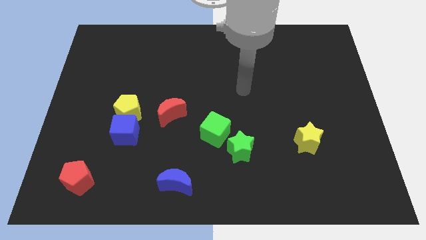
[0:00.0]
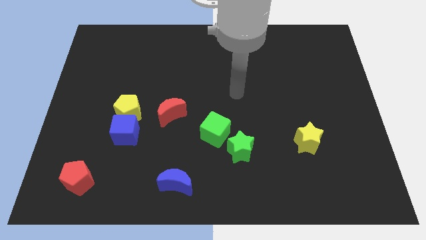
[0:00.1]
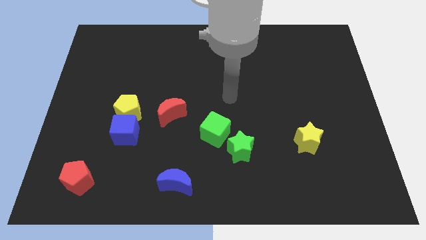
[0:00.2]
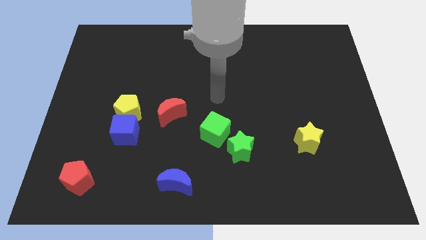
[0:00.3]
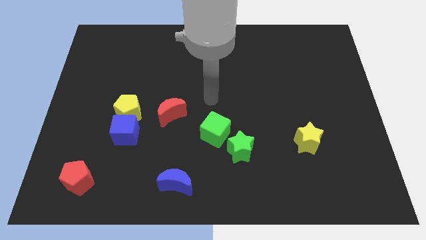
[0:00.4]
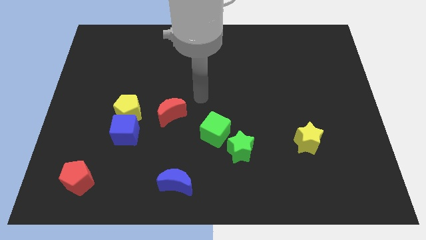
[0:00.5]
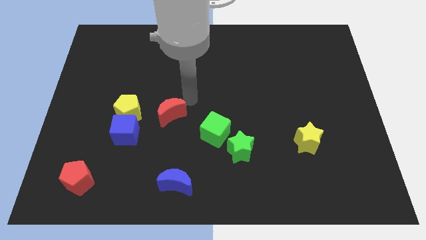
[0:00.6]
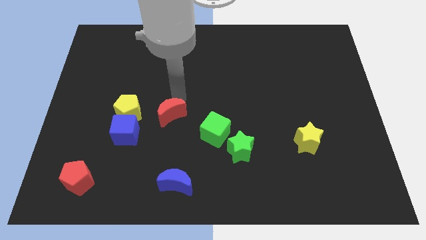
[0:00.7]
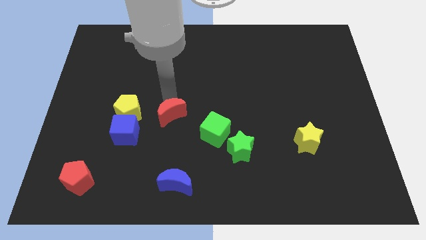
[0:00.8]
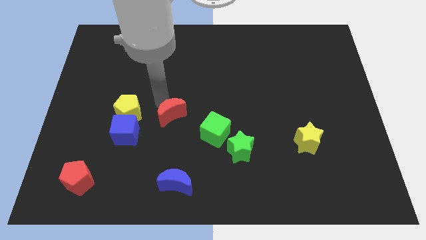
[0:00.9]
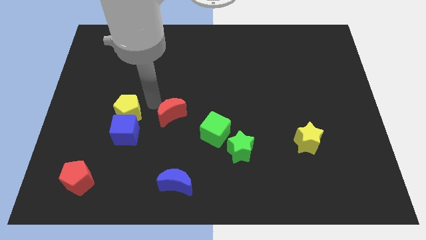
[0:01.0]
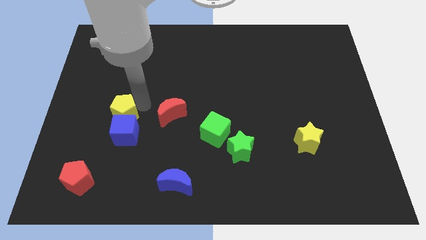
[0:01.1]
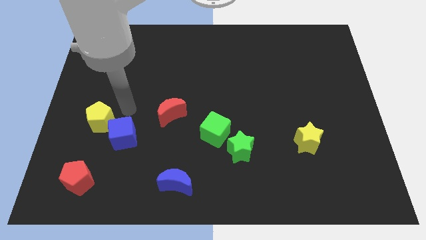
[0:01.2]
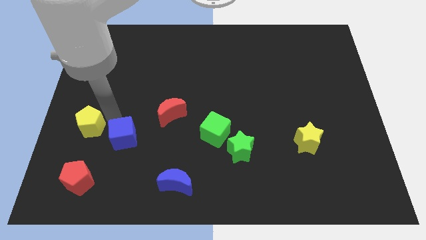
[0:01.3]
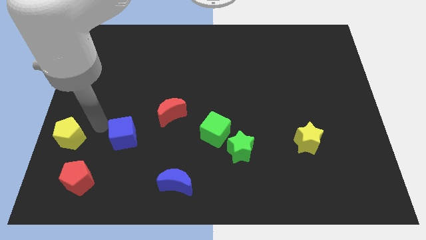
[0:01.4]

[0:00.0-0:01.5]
pull the blue cube apart from the yellow pentagon

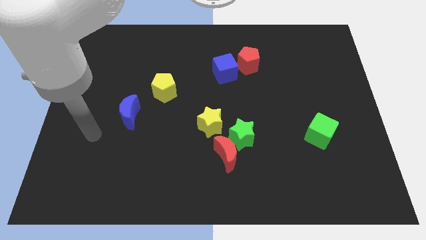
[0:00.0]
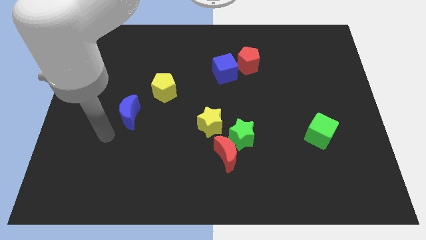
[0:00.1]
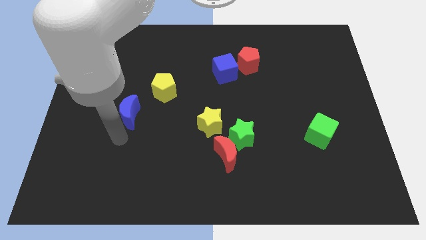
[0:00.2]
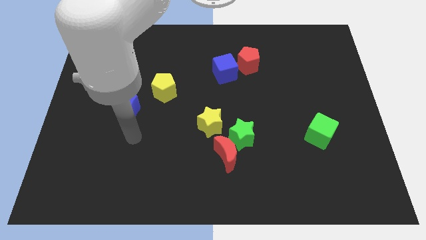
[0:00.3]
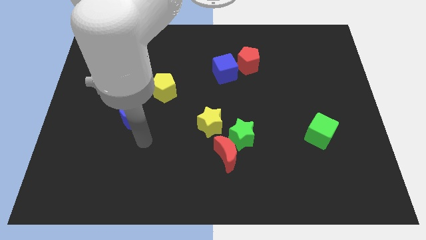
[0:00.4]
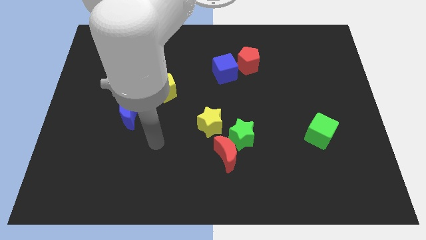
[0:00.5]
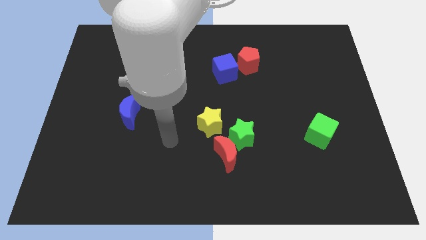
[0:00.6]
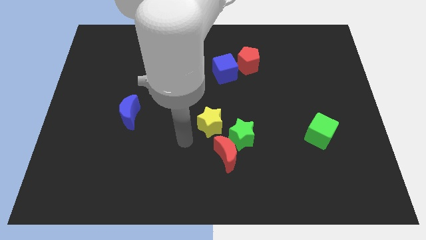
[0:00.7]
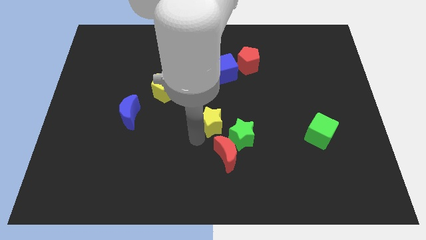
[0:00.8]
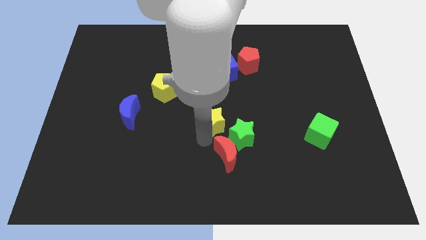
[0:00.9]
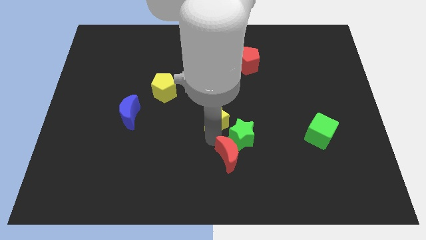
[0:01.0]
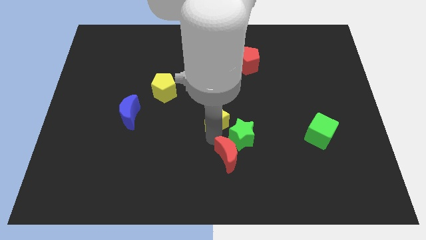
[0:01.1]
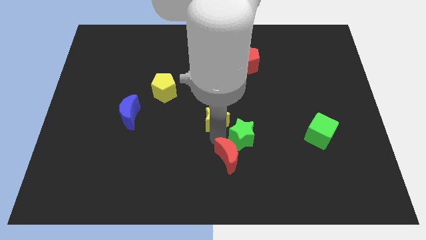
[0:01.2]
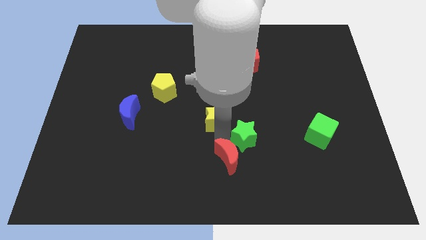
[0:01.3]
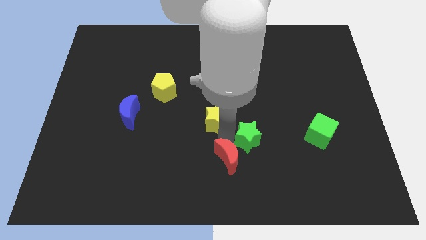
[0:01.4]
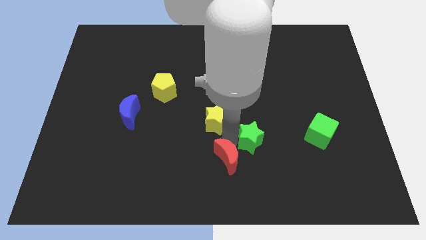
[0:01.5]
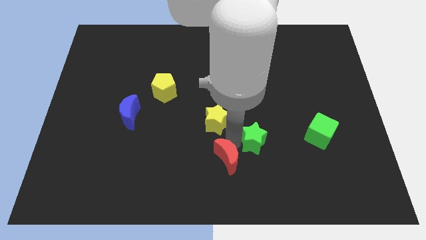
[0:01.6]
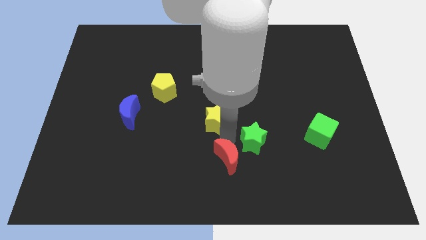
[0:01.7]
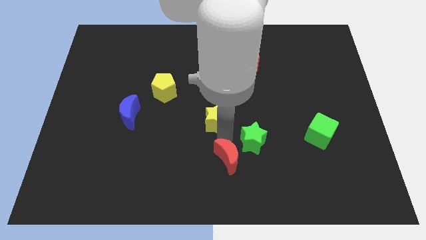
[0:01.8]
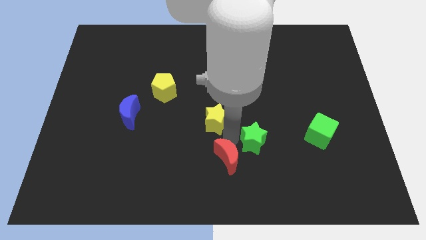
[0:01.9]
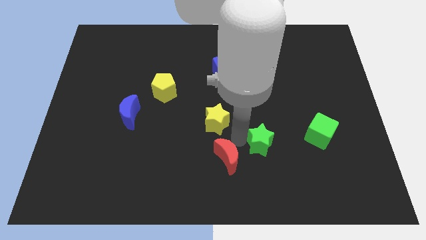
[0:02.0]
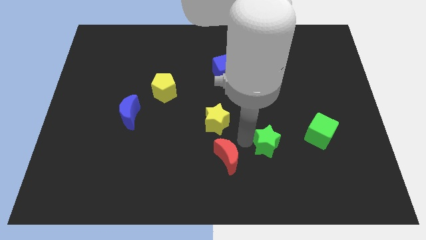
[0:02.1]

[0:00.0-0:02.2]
pull the green star apart from the red moon and yellow star

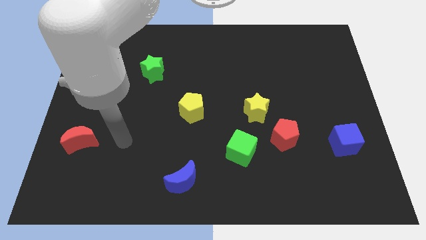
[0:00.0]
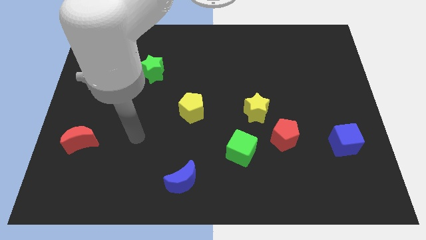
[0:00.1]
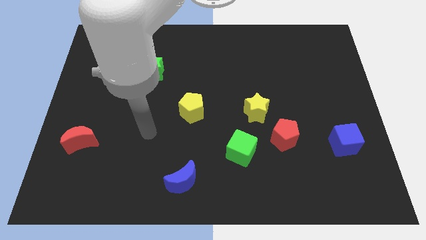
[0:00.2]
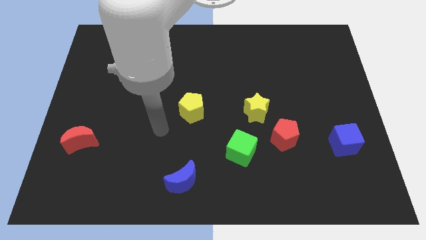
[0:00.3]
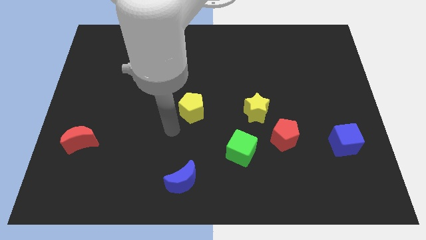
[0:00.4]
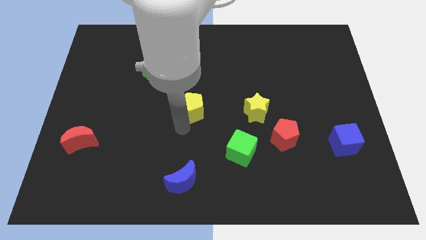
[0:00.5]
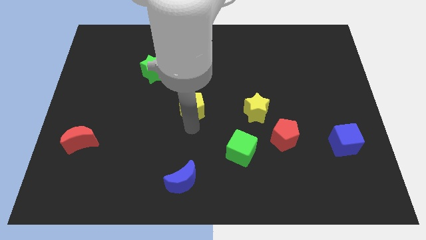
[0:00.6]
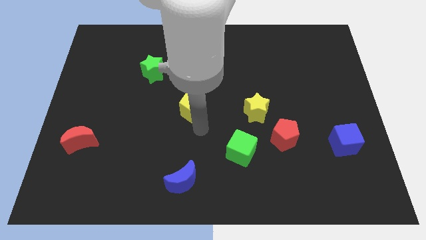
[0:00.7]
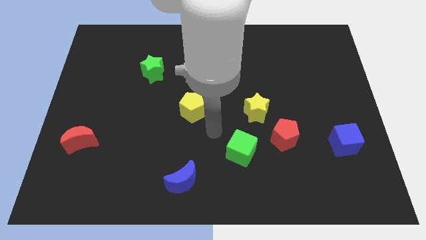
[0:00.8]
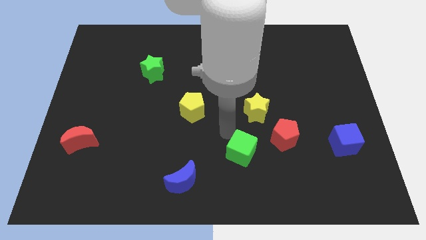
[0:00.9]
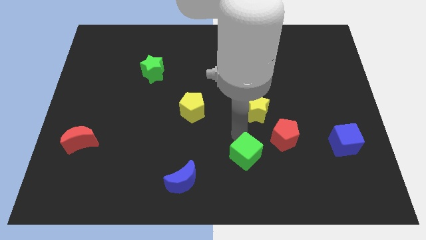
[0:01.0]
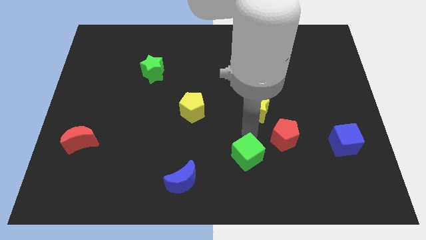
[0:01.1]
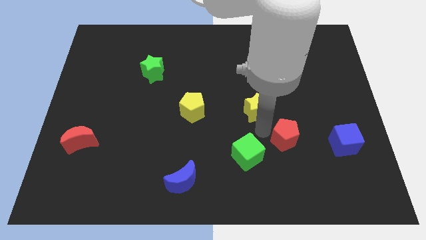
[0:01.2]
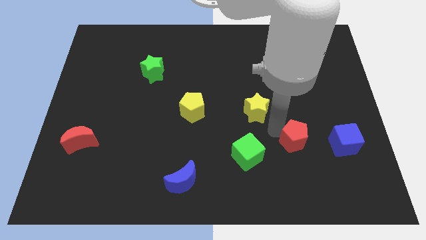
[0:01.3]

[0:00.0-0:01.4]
separate the yellow star from the red pentagon

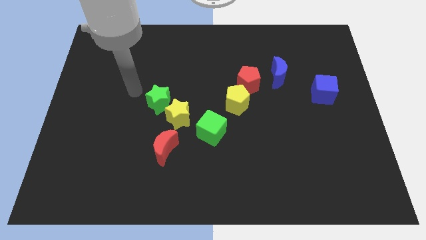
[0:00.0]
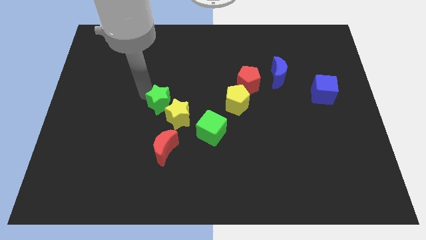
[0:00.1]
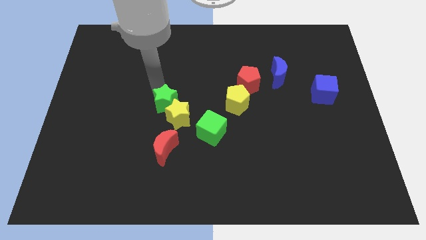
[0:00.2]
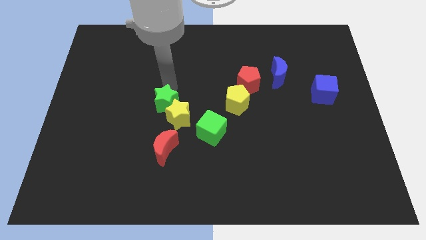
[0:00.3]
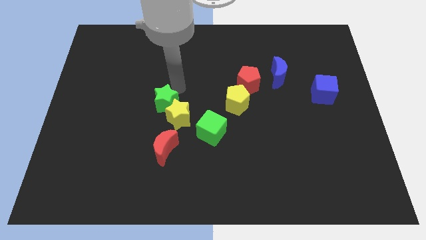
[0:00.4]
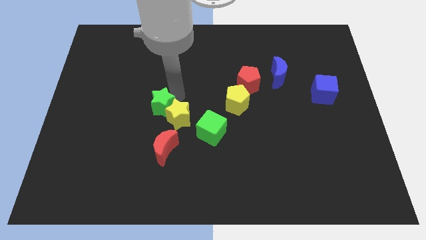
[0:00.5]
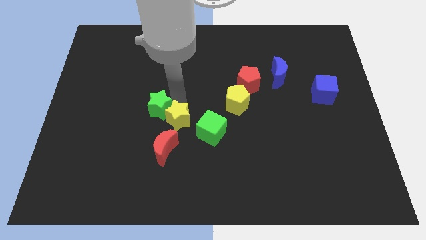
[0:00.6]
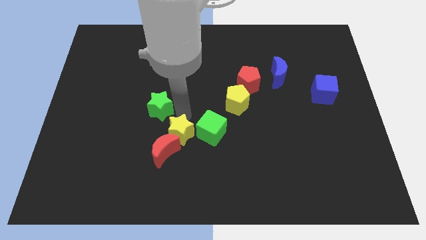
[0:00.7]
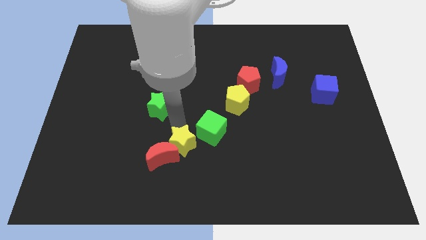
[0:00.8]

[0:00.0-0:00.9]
pull the green star apart from the yellow star

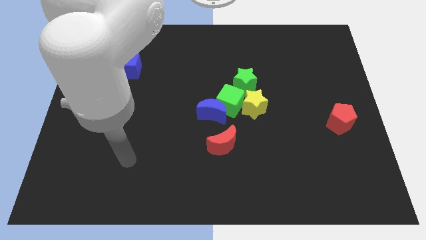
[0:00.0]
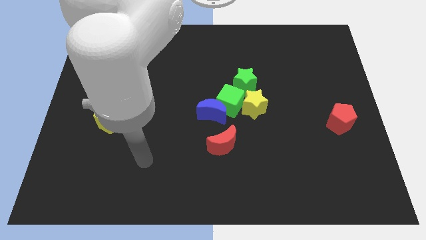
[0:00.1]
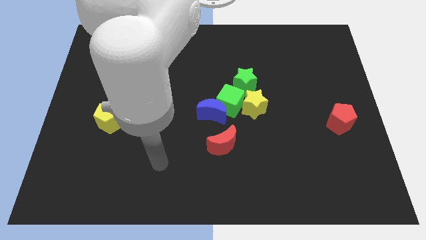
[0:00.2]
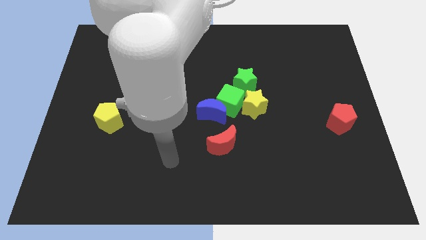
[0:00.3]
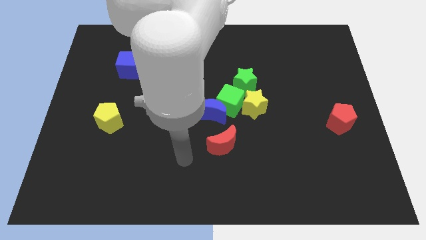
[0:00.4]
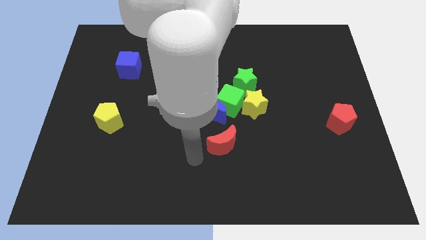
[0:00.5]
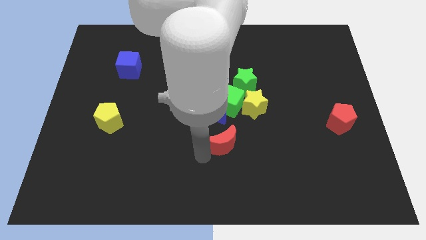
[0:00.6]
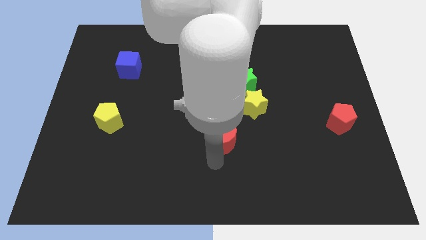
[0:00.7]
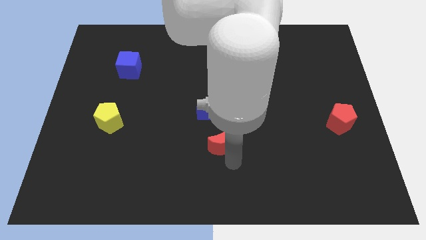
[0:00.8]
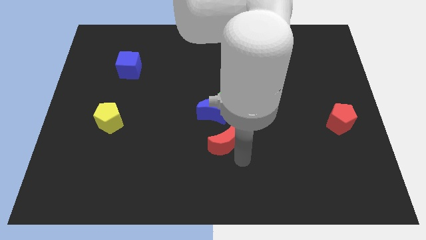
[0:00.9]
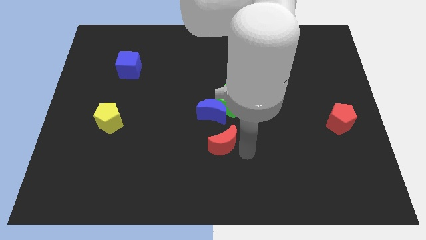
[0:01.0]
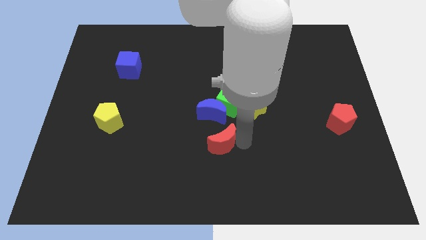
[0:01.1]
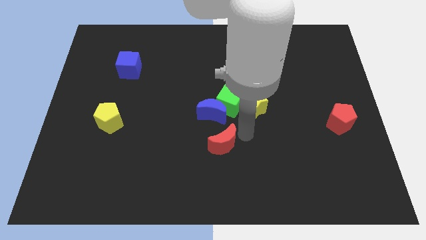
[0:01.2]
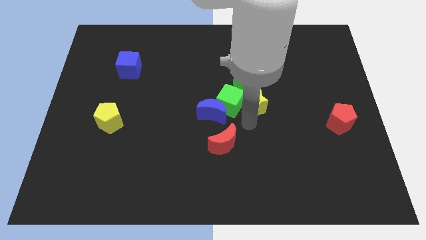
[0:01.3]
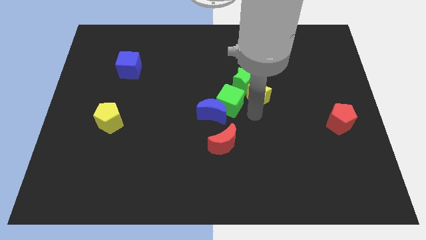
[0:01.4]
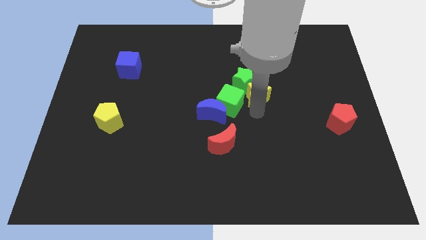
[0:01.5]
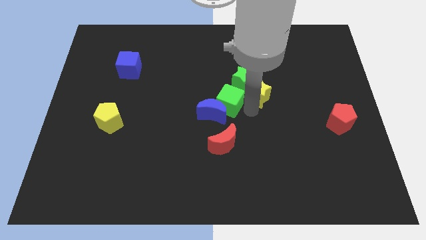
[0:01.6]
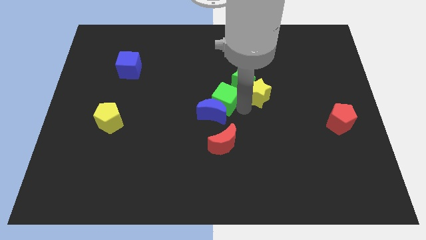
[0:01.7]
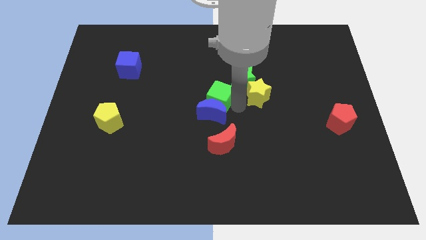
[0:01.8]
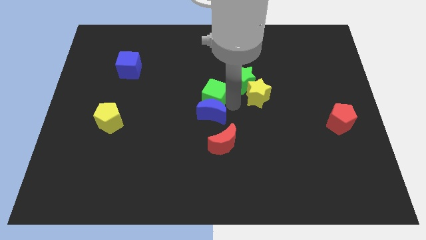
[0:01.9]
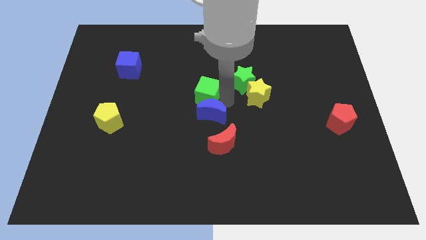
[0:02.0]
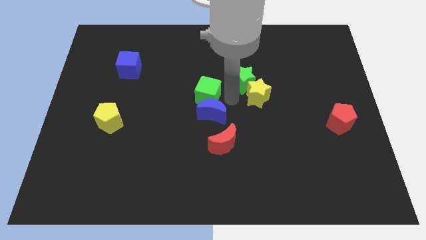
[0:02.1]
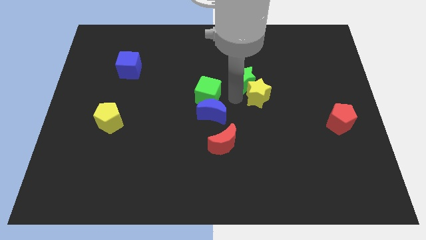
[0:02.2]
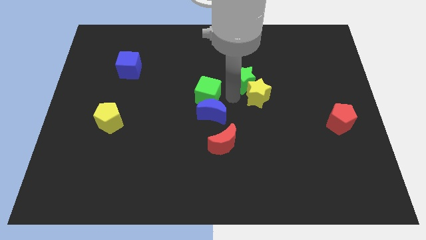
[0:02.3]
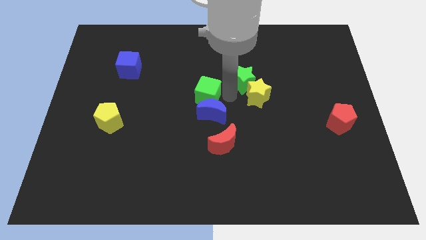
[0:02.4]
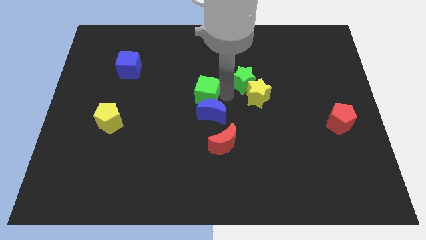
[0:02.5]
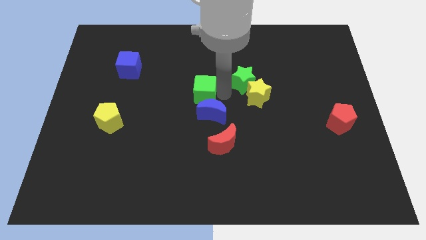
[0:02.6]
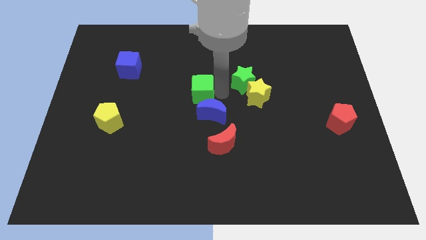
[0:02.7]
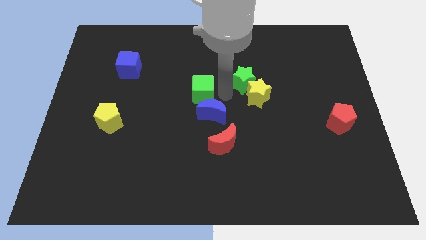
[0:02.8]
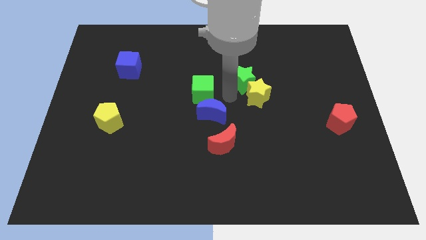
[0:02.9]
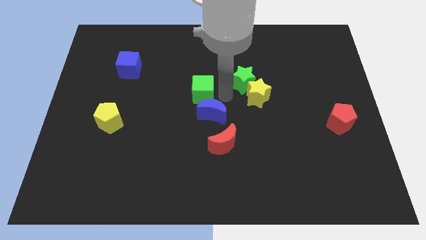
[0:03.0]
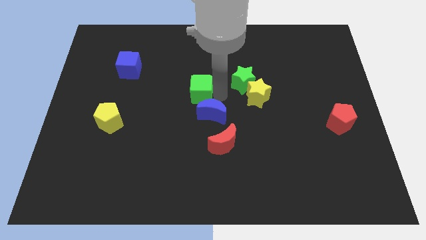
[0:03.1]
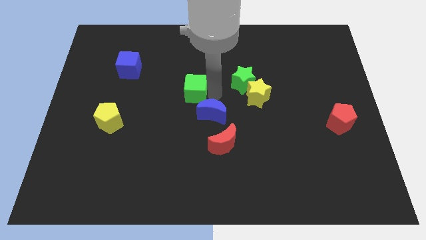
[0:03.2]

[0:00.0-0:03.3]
separate the green cube from the group
